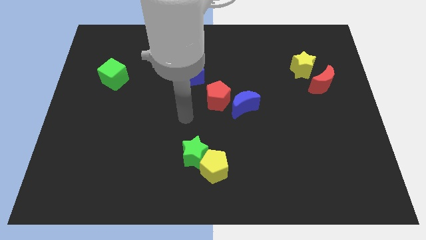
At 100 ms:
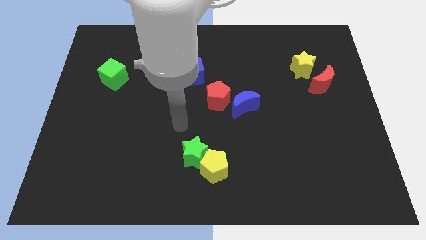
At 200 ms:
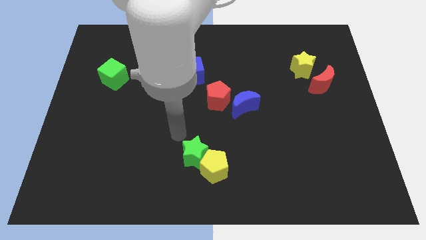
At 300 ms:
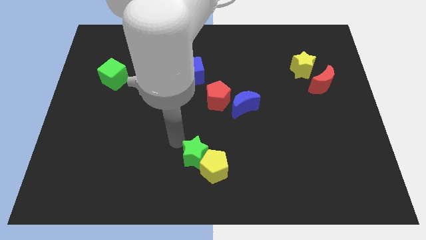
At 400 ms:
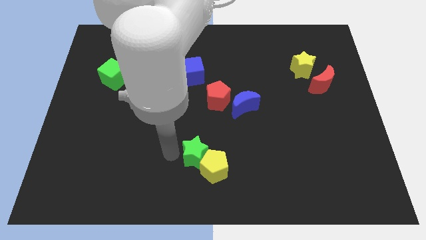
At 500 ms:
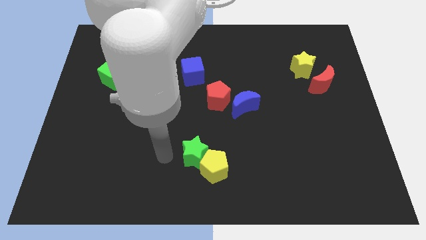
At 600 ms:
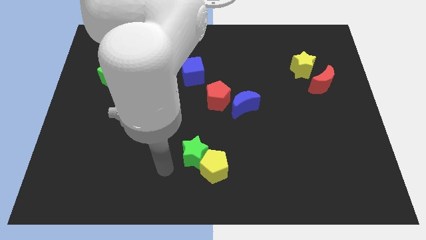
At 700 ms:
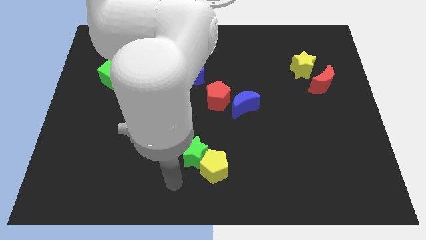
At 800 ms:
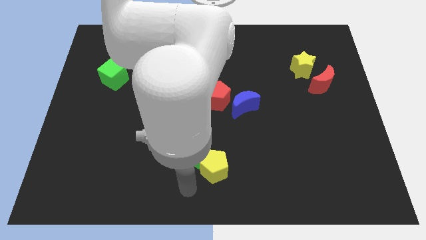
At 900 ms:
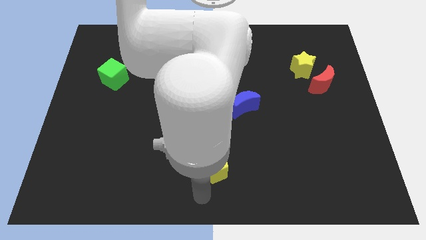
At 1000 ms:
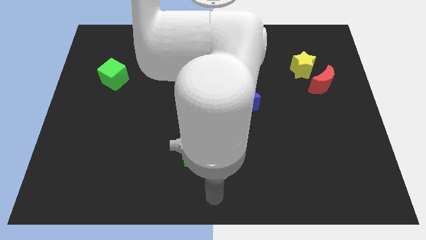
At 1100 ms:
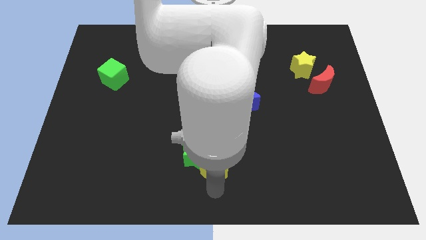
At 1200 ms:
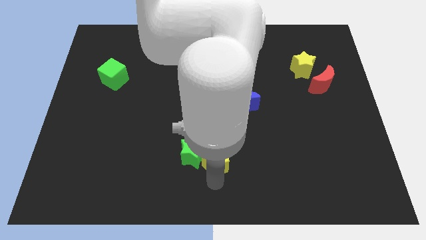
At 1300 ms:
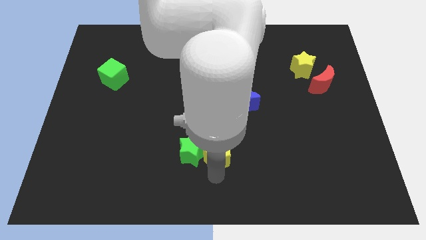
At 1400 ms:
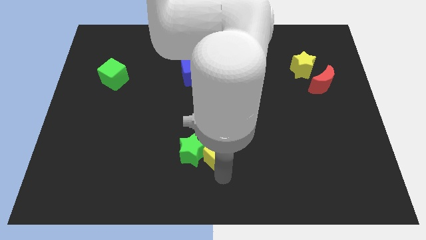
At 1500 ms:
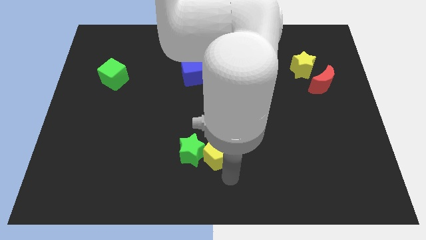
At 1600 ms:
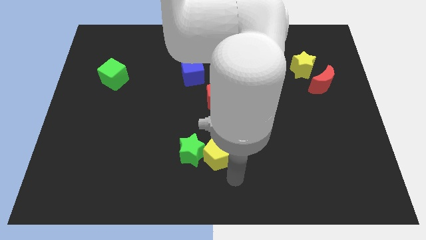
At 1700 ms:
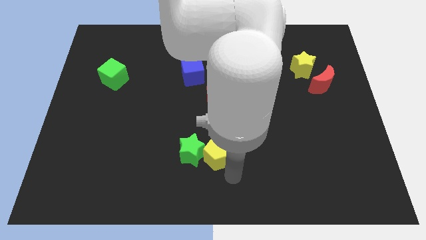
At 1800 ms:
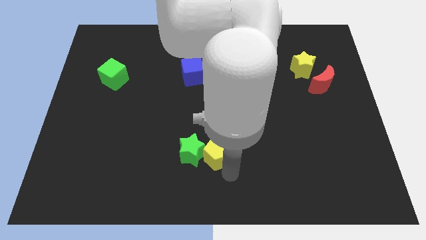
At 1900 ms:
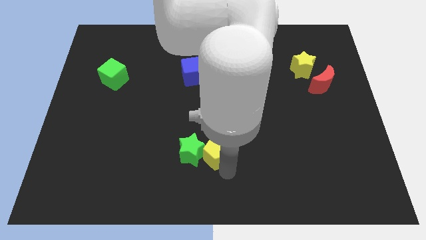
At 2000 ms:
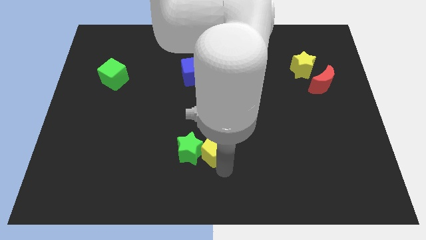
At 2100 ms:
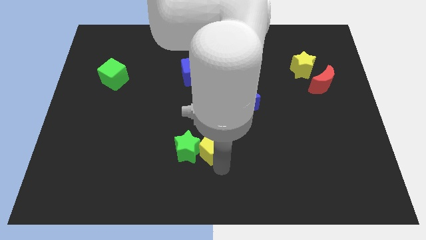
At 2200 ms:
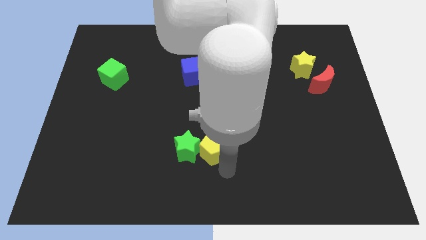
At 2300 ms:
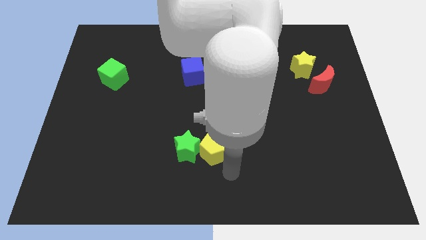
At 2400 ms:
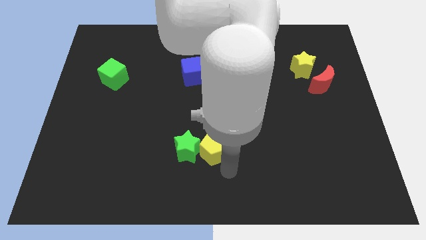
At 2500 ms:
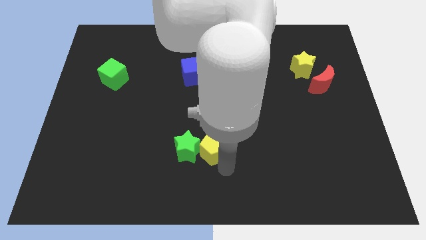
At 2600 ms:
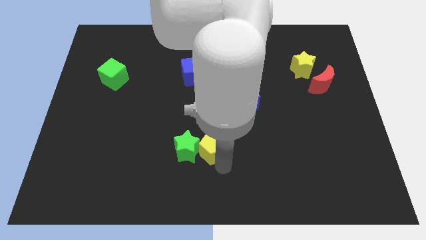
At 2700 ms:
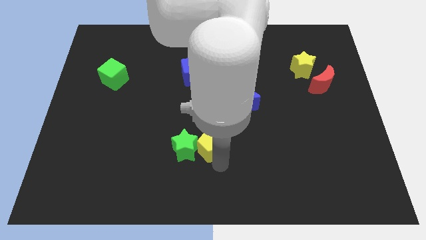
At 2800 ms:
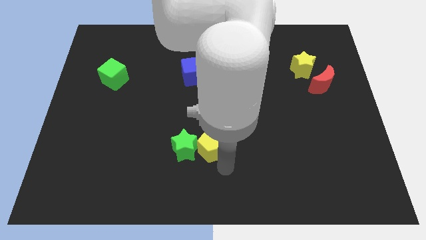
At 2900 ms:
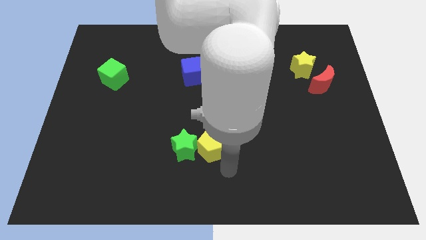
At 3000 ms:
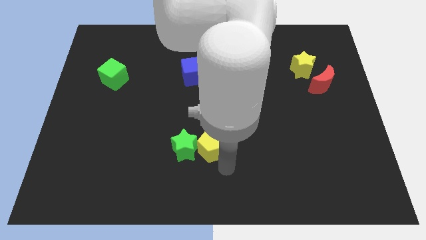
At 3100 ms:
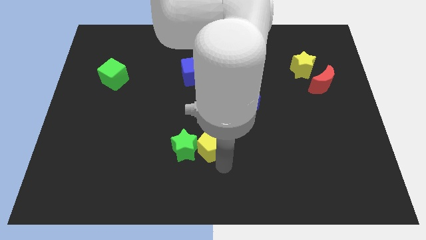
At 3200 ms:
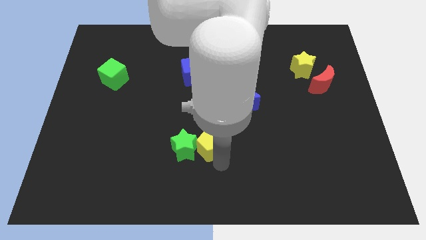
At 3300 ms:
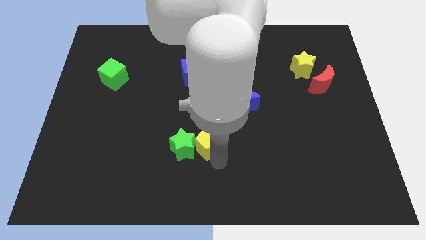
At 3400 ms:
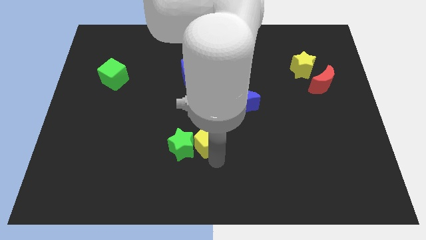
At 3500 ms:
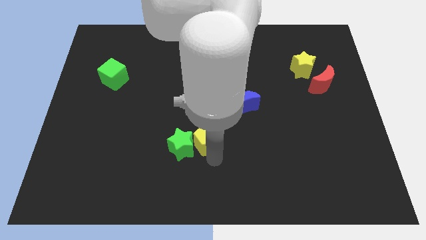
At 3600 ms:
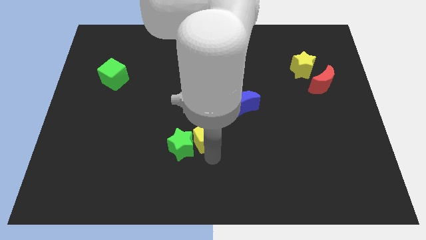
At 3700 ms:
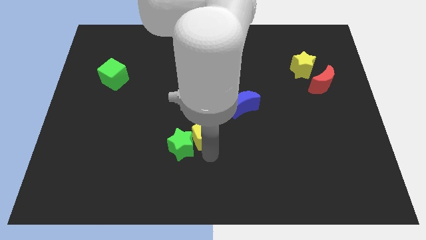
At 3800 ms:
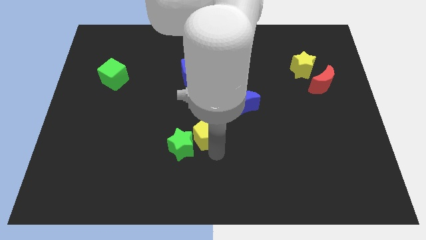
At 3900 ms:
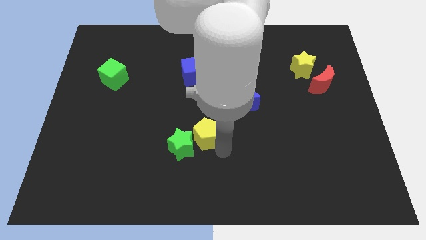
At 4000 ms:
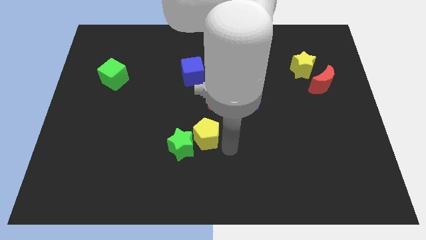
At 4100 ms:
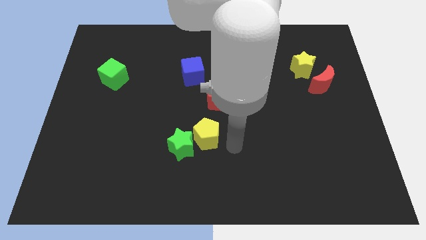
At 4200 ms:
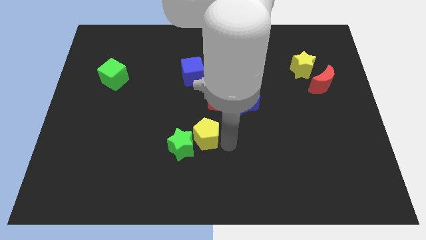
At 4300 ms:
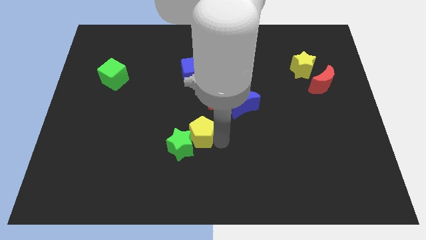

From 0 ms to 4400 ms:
slide the yellow pentagon somewhat up and to the left diagonally

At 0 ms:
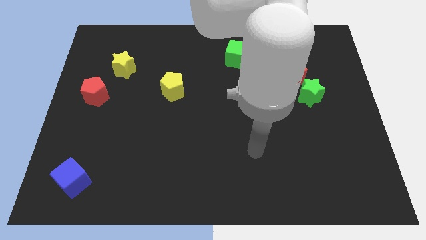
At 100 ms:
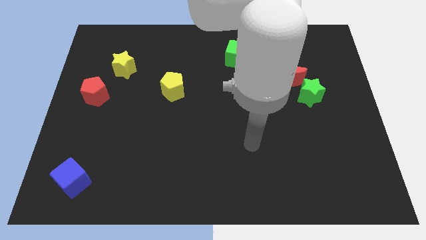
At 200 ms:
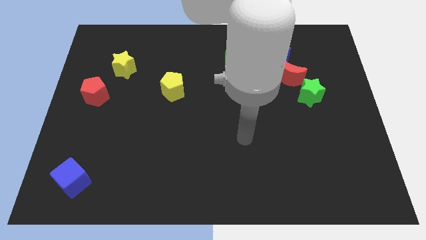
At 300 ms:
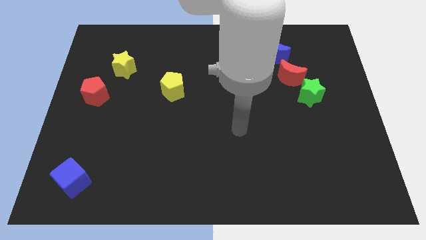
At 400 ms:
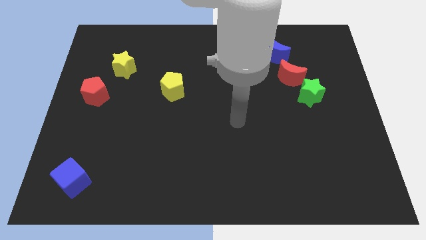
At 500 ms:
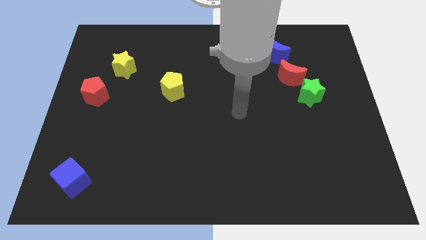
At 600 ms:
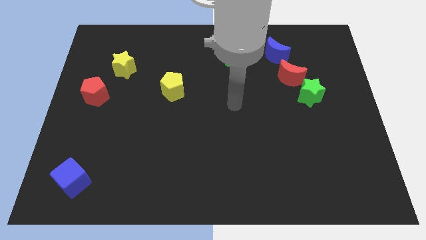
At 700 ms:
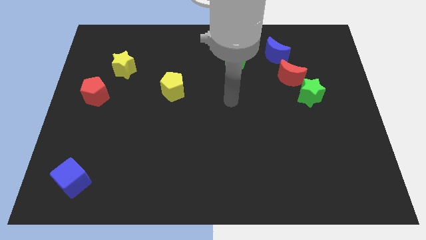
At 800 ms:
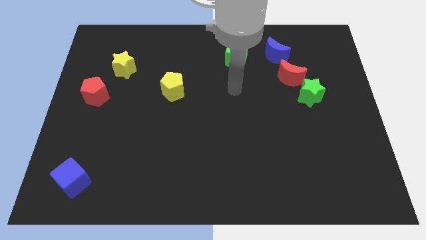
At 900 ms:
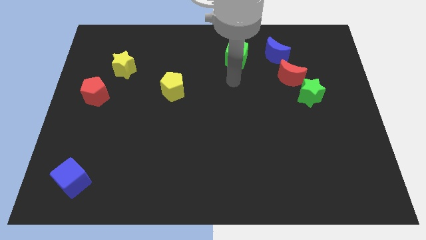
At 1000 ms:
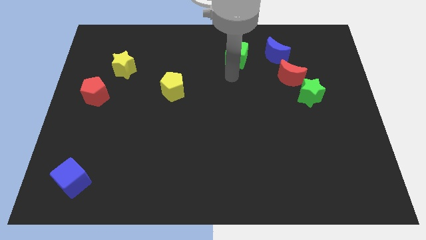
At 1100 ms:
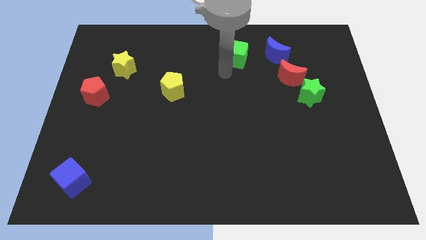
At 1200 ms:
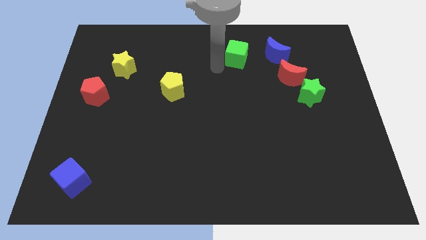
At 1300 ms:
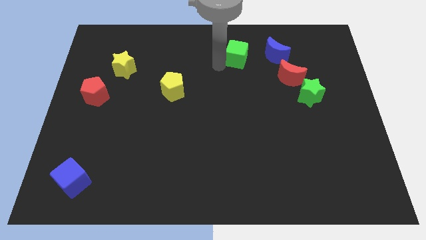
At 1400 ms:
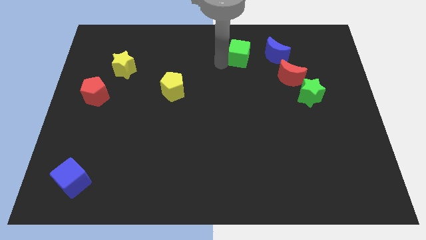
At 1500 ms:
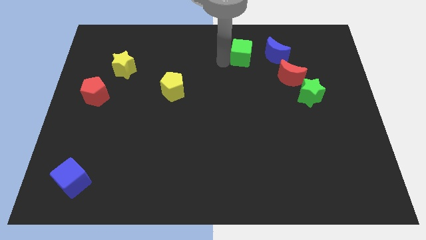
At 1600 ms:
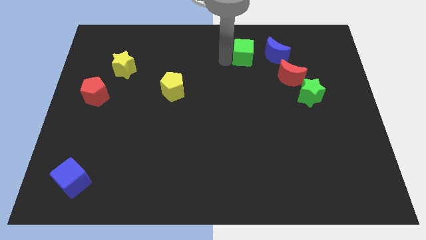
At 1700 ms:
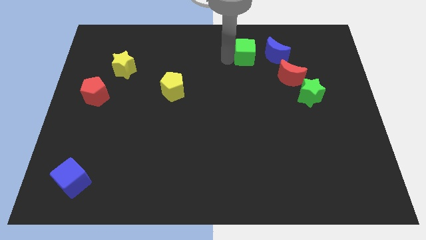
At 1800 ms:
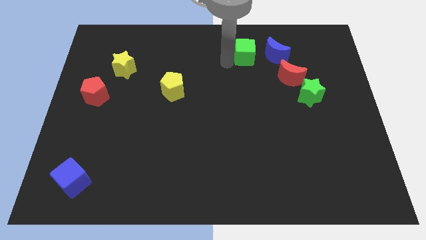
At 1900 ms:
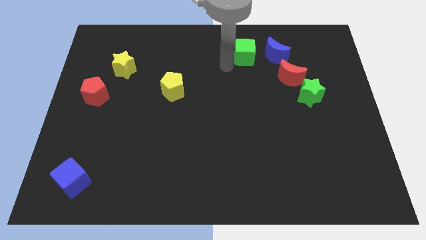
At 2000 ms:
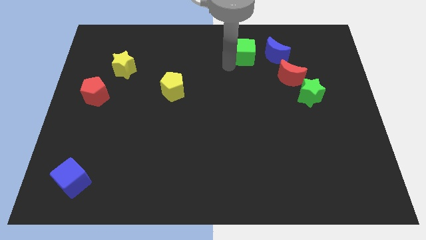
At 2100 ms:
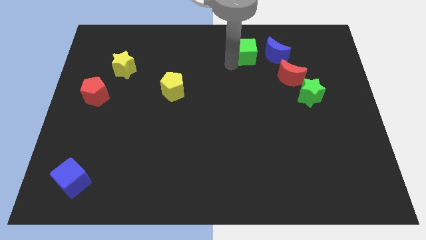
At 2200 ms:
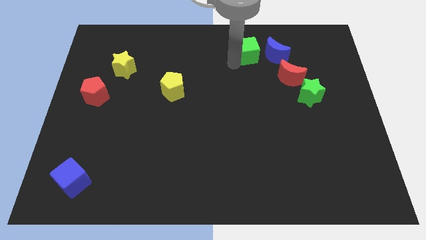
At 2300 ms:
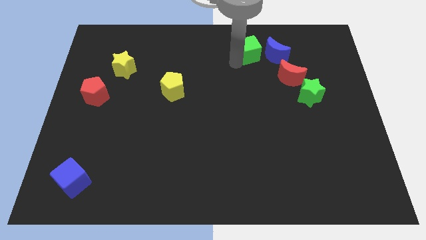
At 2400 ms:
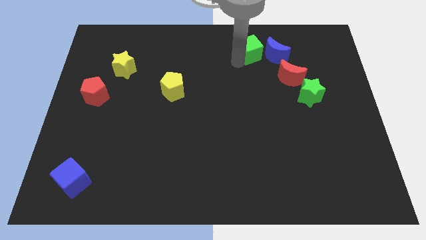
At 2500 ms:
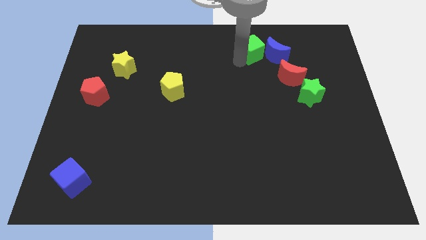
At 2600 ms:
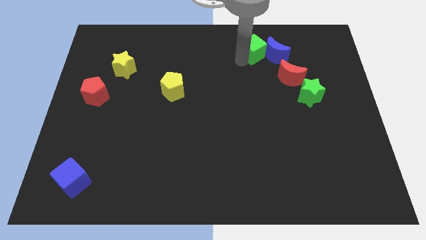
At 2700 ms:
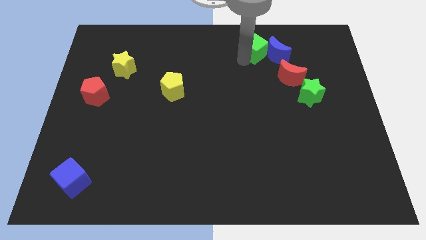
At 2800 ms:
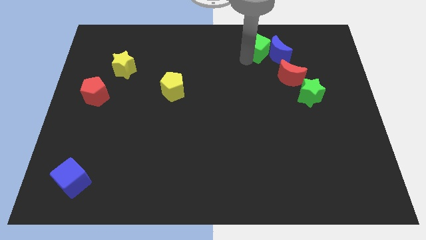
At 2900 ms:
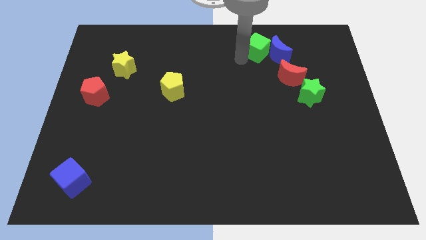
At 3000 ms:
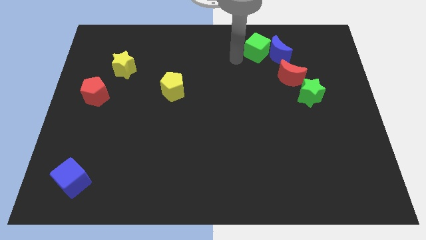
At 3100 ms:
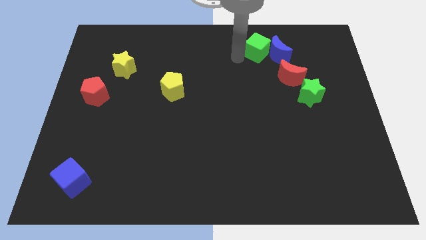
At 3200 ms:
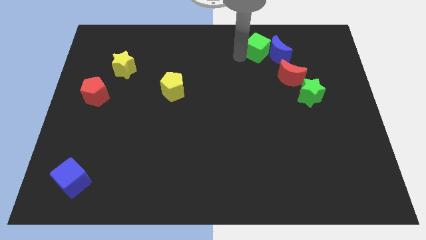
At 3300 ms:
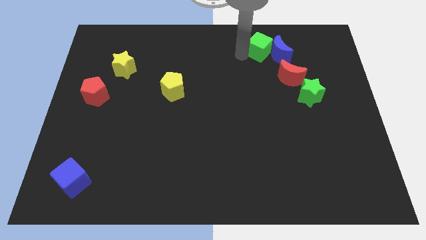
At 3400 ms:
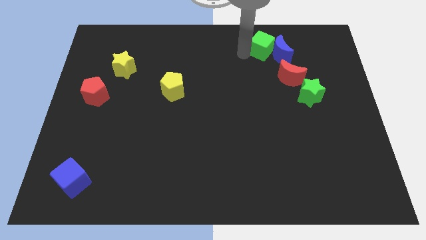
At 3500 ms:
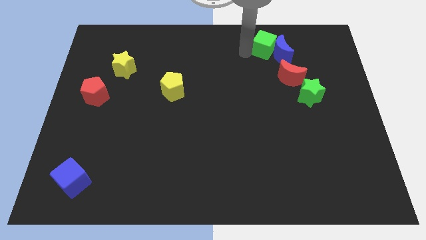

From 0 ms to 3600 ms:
slide the green cube right slightly
